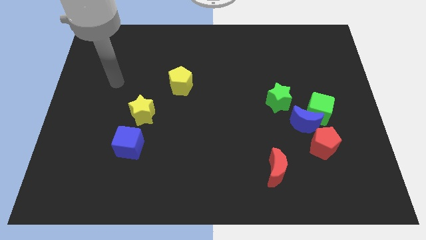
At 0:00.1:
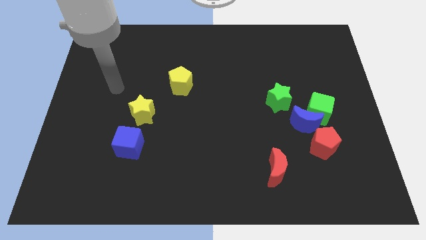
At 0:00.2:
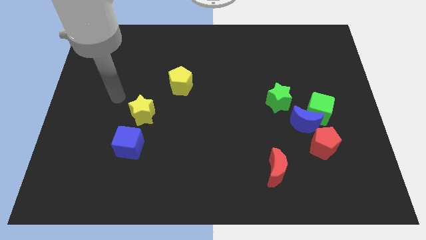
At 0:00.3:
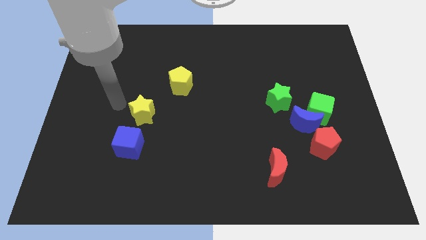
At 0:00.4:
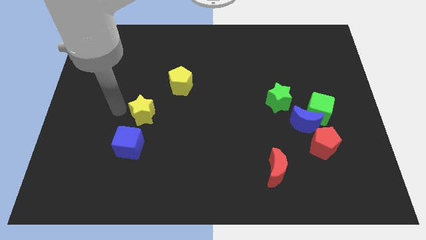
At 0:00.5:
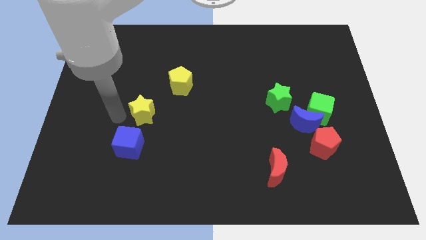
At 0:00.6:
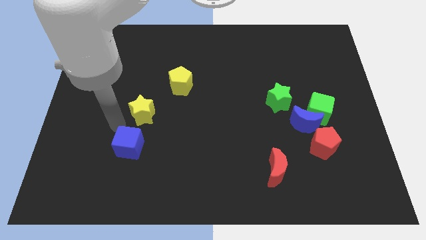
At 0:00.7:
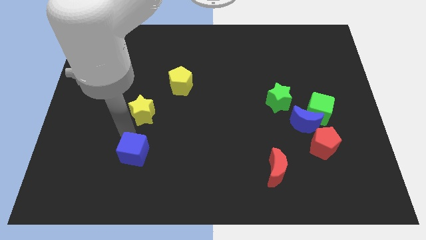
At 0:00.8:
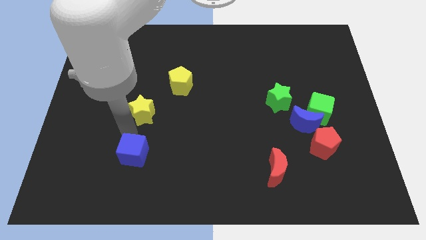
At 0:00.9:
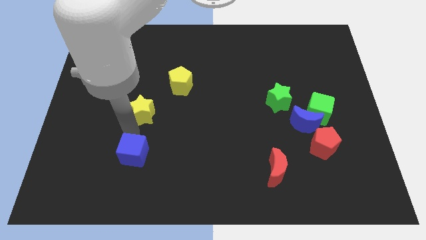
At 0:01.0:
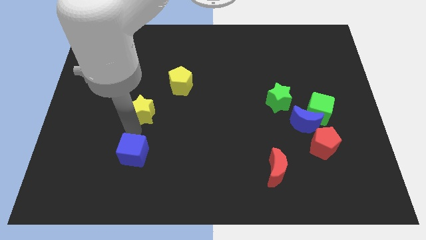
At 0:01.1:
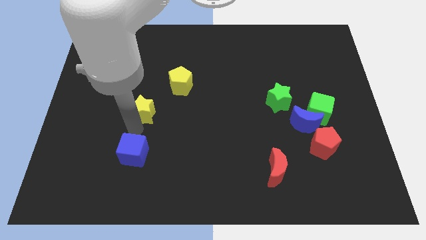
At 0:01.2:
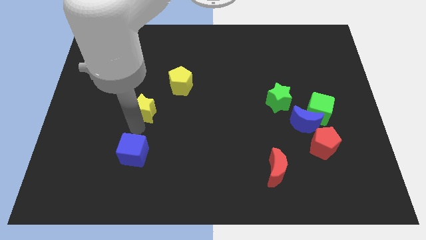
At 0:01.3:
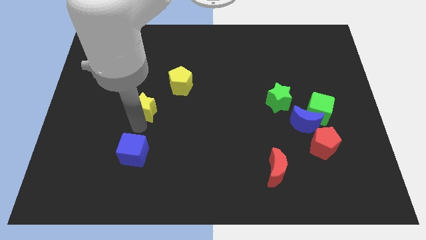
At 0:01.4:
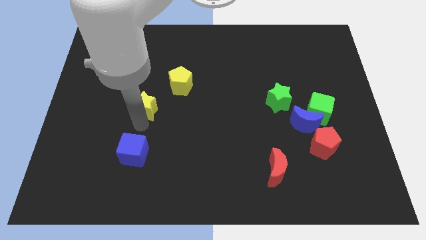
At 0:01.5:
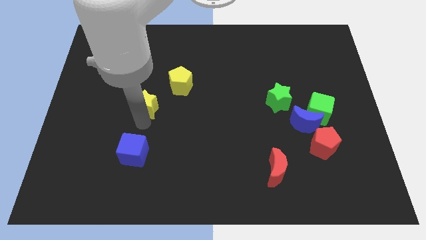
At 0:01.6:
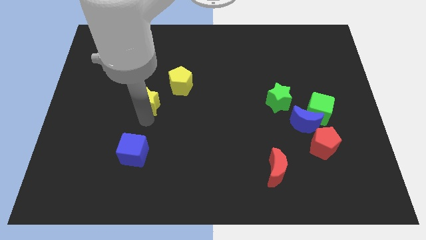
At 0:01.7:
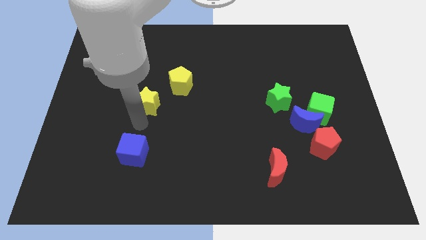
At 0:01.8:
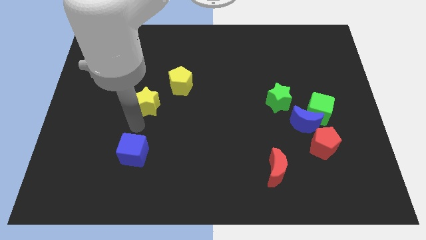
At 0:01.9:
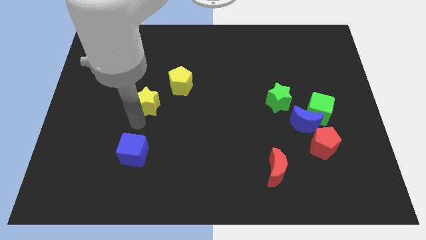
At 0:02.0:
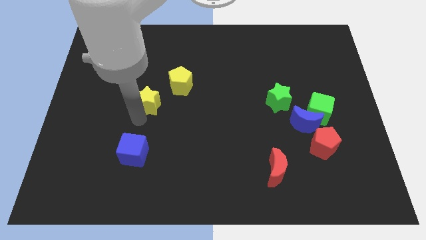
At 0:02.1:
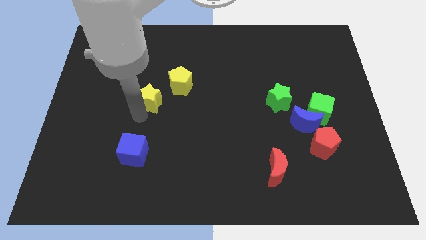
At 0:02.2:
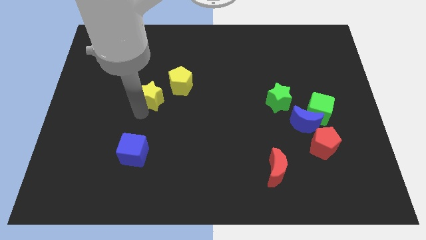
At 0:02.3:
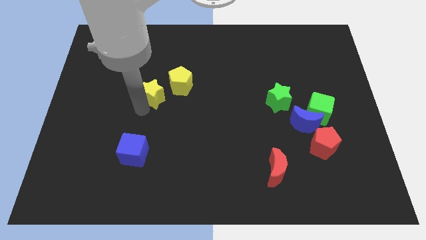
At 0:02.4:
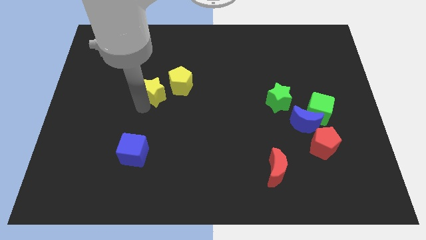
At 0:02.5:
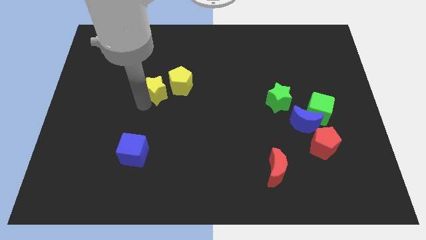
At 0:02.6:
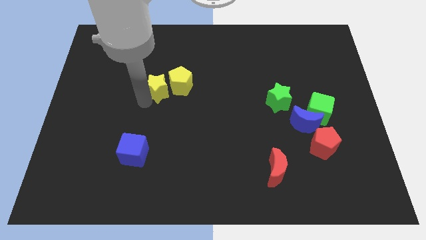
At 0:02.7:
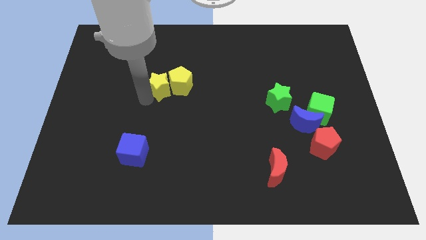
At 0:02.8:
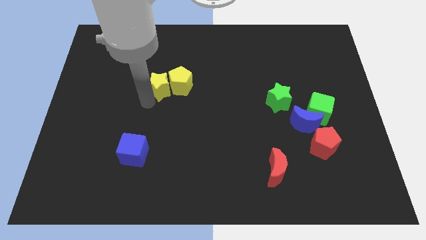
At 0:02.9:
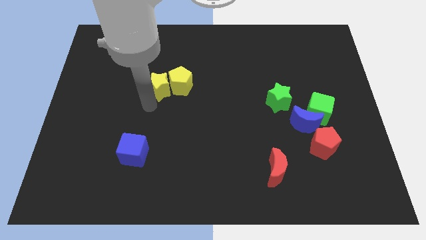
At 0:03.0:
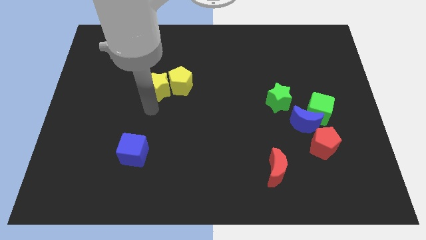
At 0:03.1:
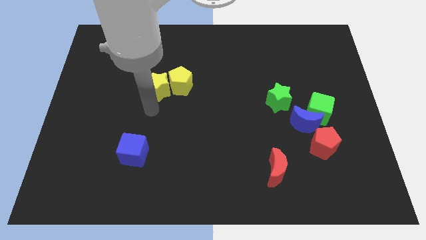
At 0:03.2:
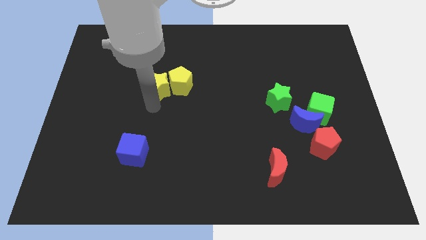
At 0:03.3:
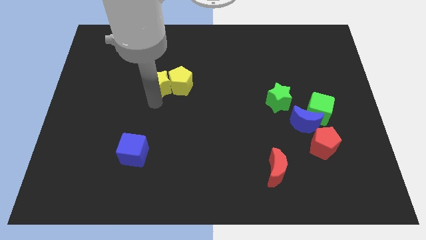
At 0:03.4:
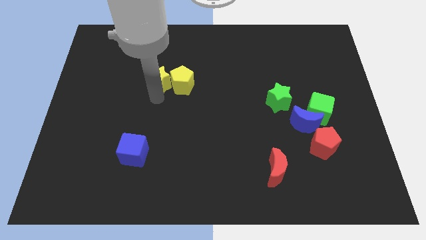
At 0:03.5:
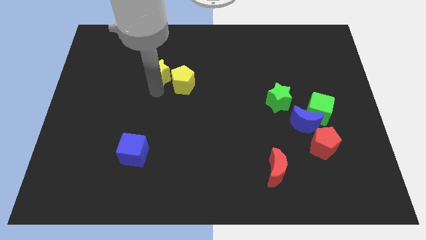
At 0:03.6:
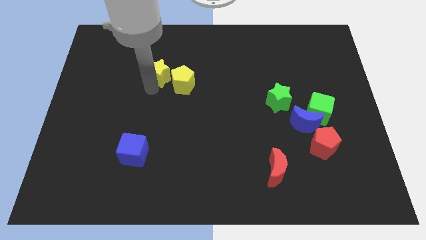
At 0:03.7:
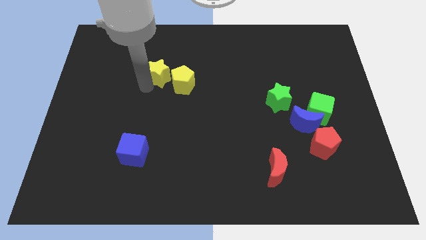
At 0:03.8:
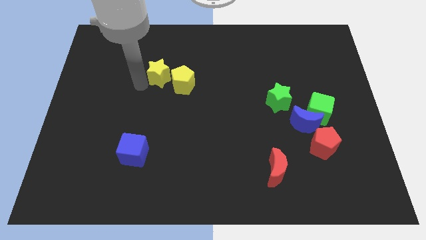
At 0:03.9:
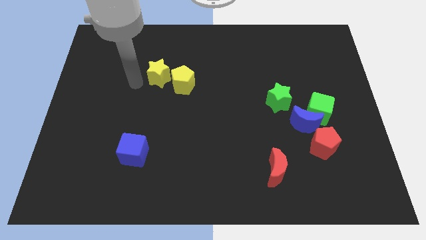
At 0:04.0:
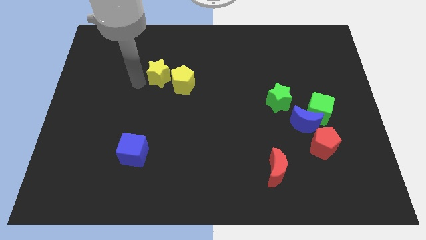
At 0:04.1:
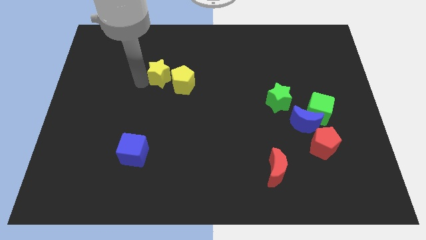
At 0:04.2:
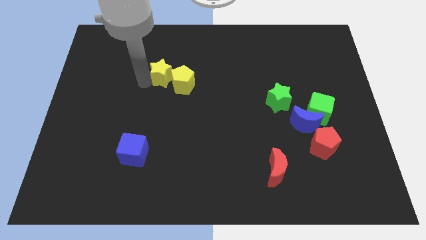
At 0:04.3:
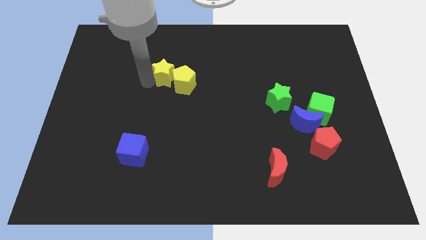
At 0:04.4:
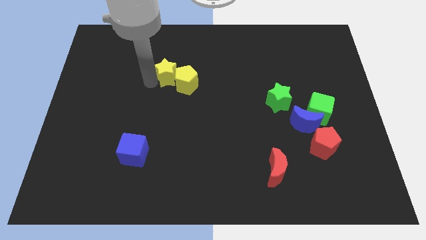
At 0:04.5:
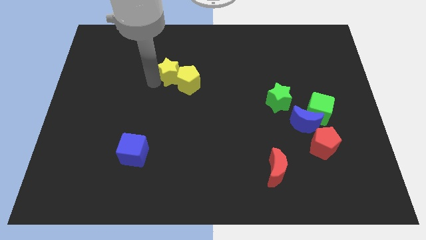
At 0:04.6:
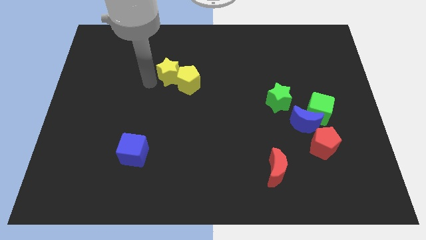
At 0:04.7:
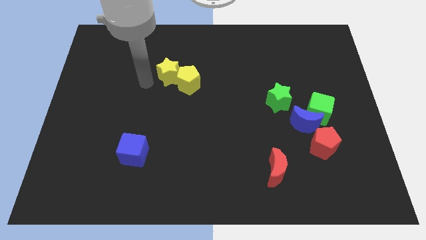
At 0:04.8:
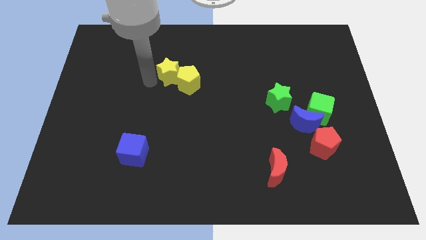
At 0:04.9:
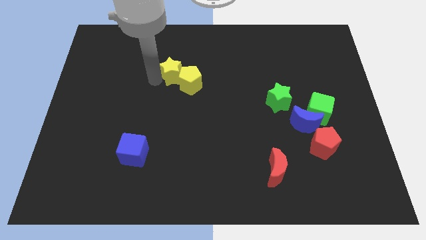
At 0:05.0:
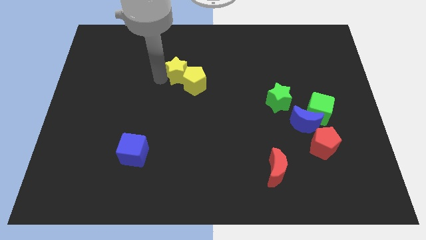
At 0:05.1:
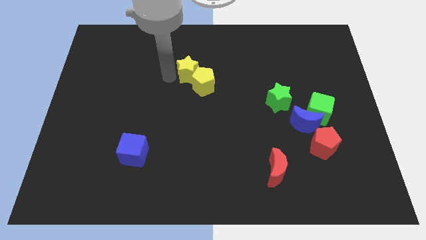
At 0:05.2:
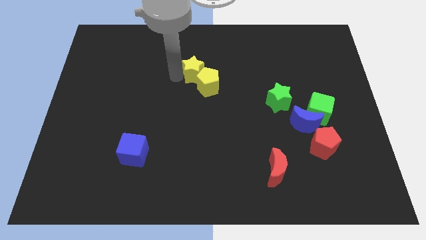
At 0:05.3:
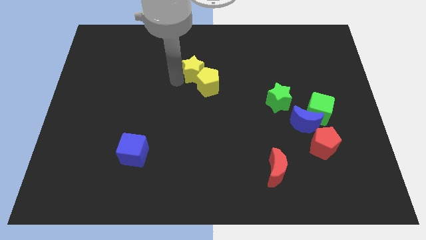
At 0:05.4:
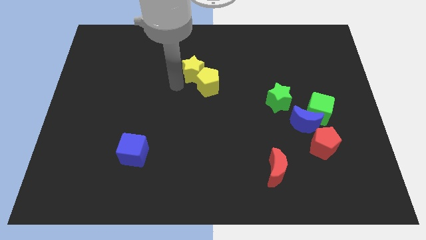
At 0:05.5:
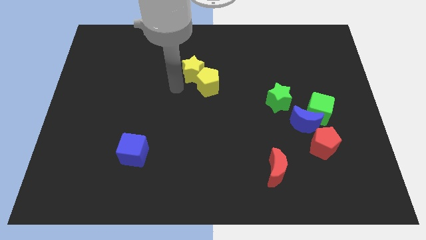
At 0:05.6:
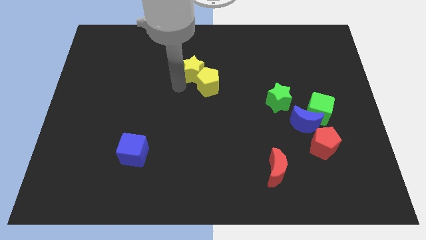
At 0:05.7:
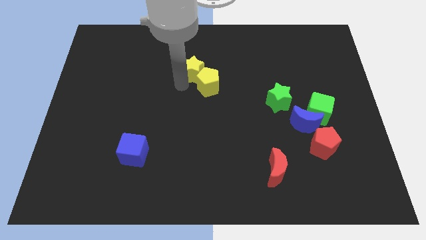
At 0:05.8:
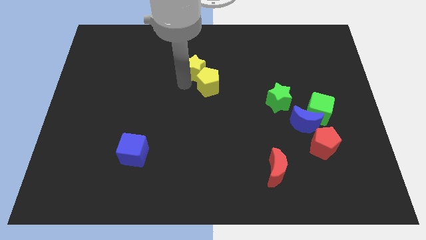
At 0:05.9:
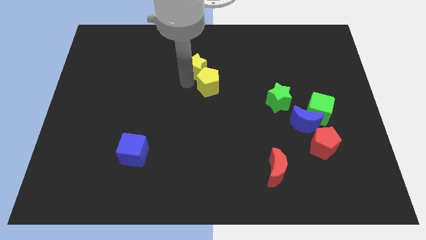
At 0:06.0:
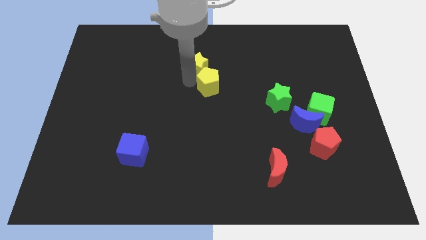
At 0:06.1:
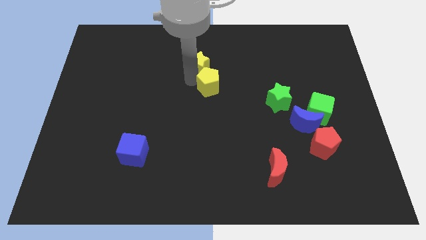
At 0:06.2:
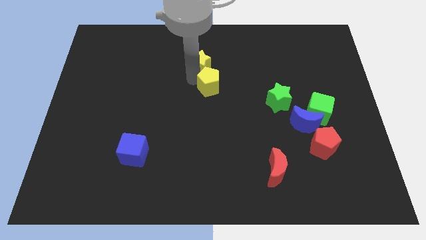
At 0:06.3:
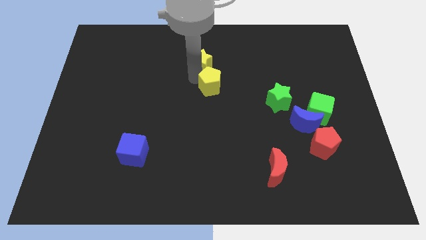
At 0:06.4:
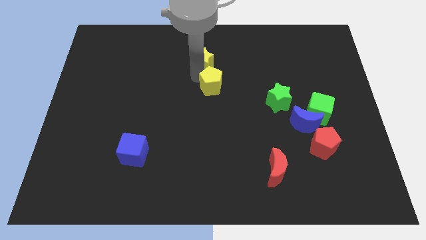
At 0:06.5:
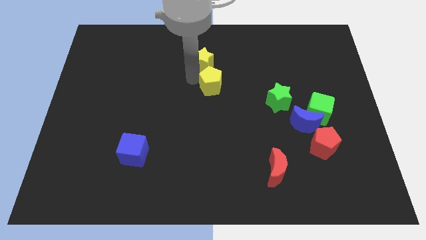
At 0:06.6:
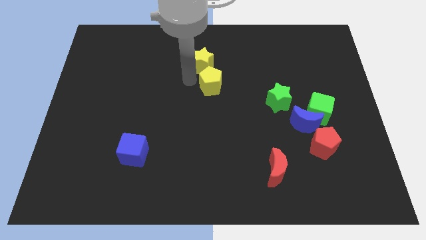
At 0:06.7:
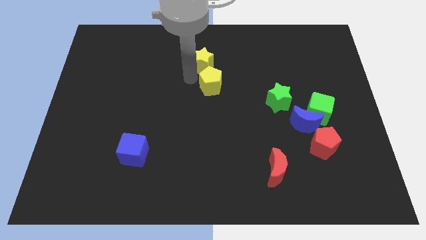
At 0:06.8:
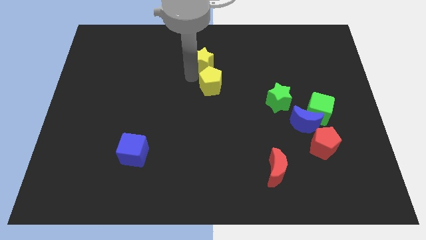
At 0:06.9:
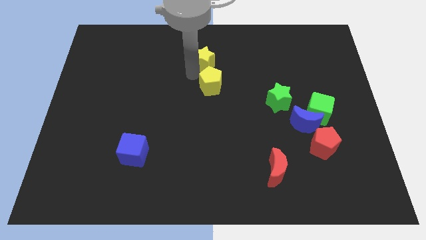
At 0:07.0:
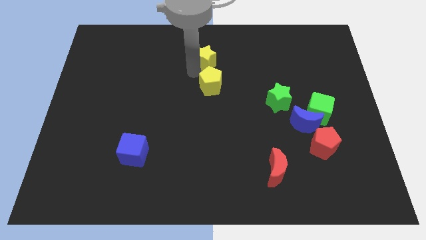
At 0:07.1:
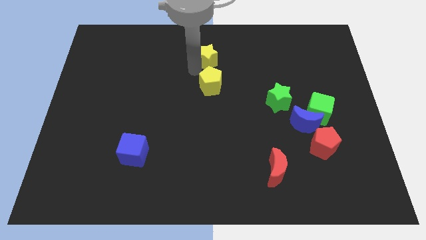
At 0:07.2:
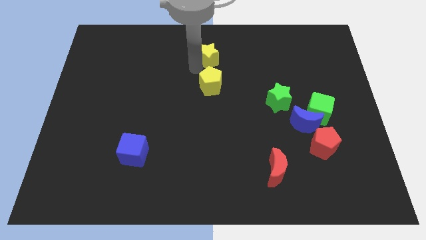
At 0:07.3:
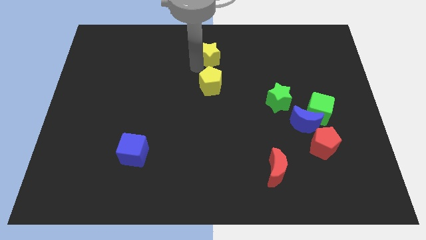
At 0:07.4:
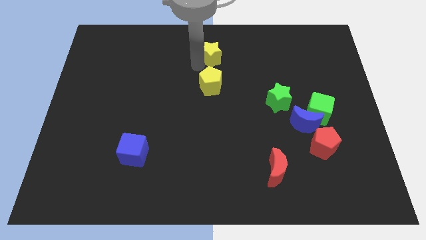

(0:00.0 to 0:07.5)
move the yellow star to the towards your base

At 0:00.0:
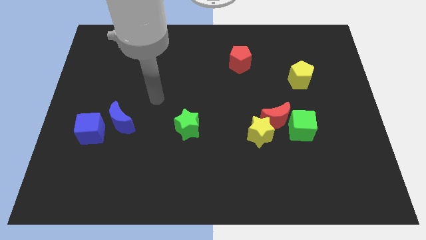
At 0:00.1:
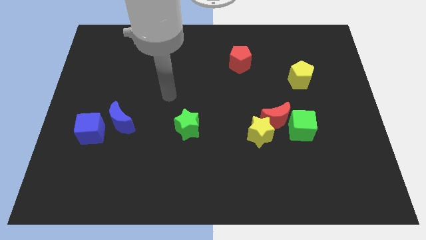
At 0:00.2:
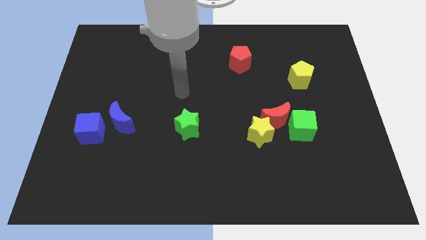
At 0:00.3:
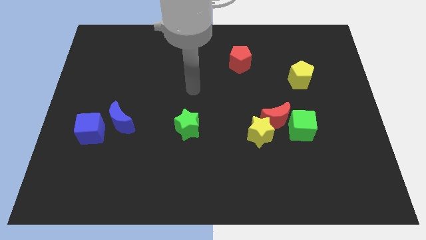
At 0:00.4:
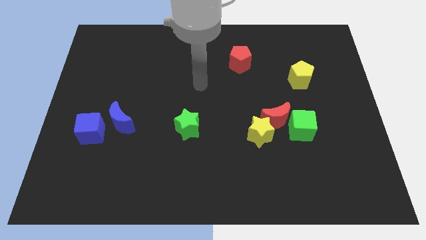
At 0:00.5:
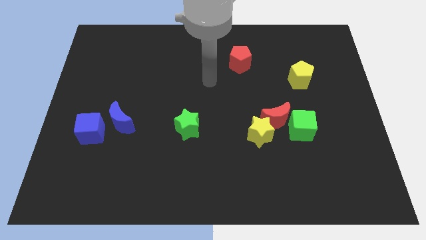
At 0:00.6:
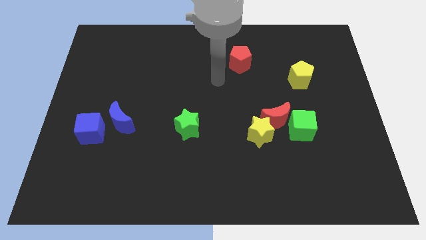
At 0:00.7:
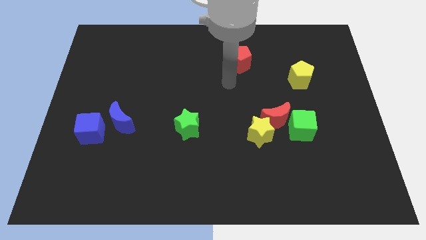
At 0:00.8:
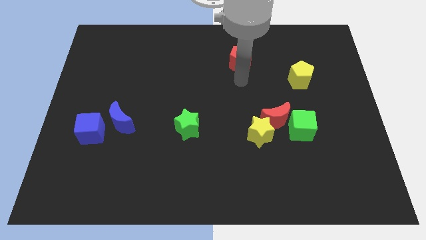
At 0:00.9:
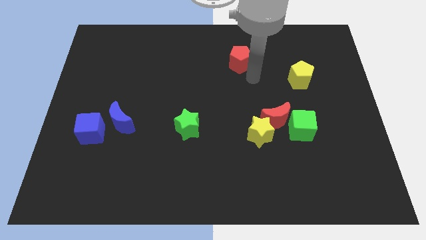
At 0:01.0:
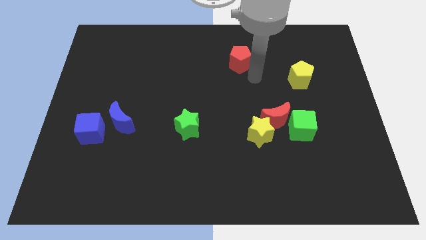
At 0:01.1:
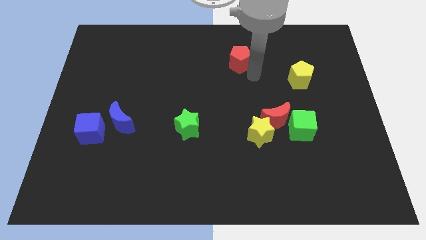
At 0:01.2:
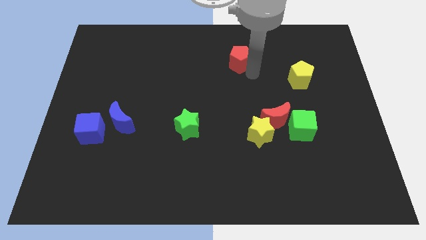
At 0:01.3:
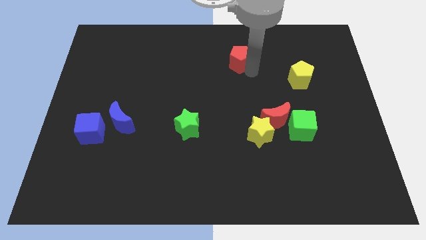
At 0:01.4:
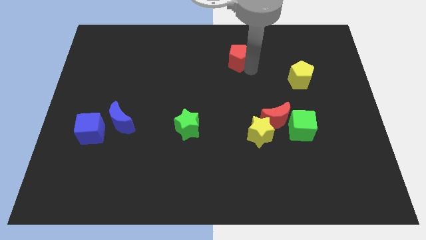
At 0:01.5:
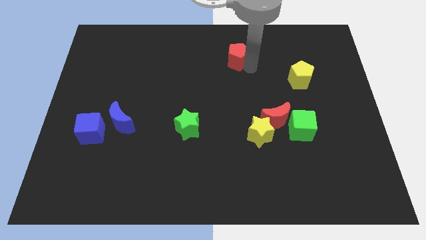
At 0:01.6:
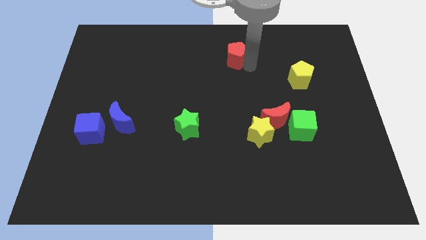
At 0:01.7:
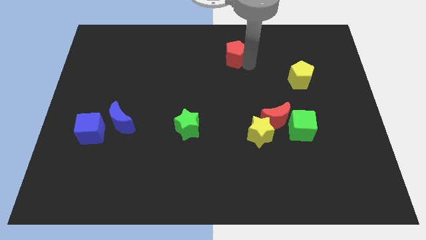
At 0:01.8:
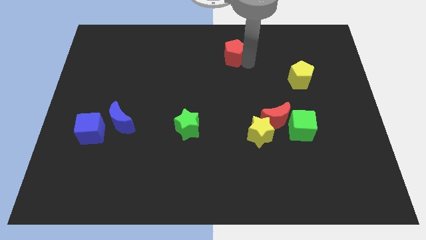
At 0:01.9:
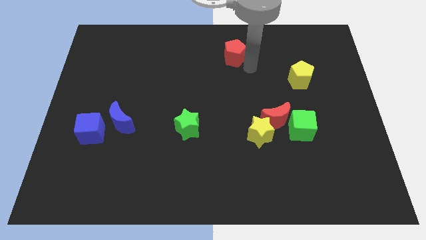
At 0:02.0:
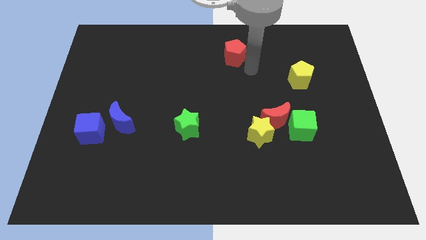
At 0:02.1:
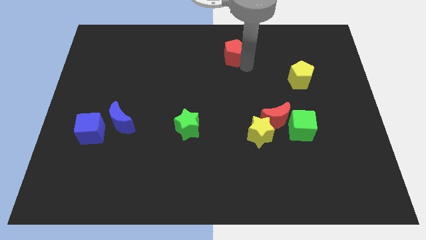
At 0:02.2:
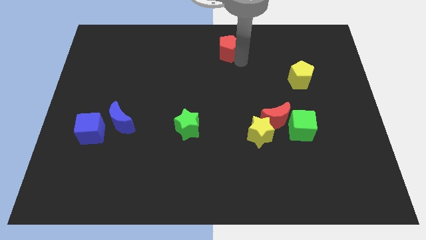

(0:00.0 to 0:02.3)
push the red pentagon to the towards your base
